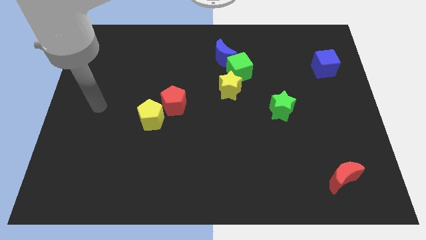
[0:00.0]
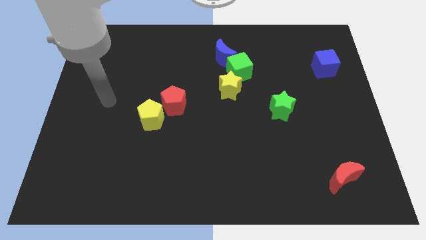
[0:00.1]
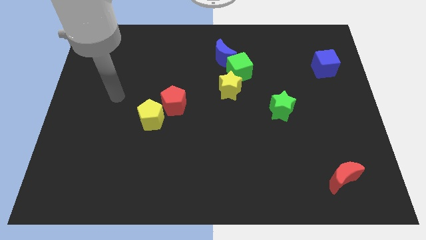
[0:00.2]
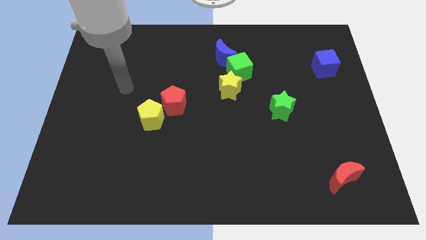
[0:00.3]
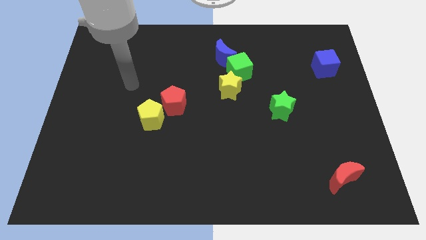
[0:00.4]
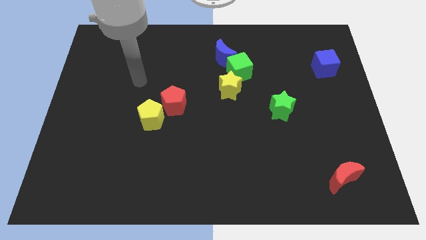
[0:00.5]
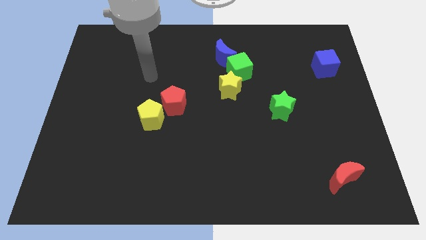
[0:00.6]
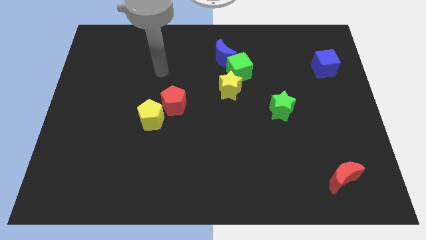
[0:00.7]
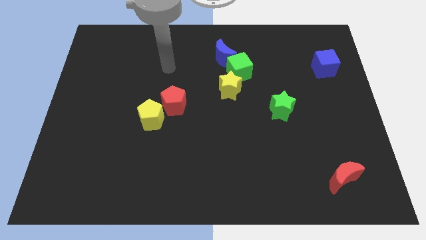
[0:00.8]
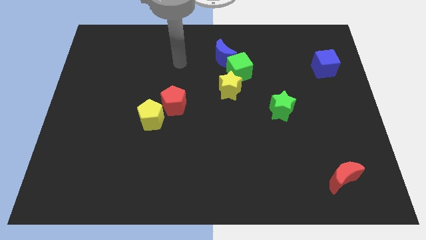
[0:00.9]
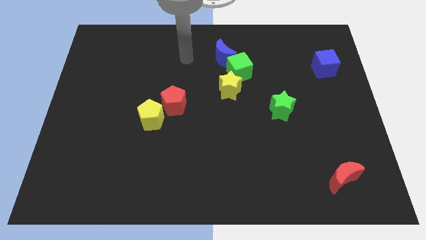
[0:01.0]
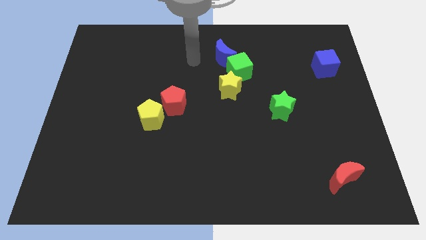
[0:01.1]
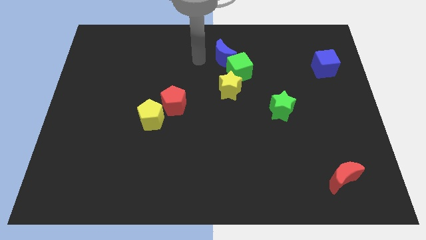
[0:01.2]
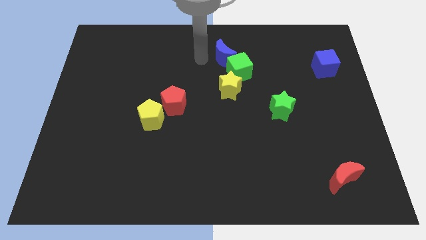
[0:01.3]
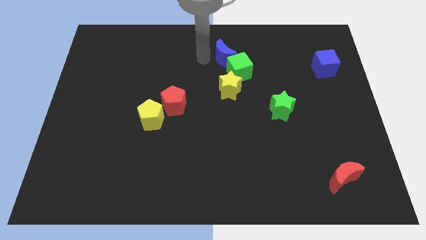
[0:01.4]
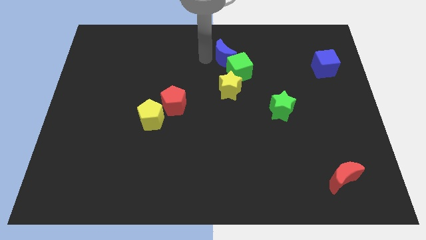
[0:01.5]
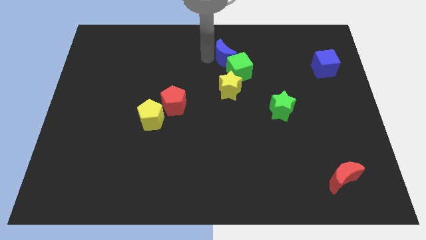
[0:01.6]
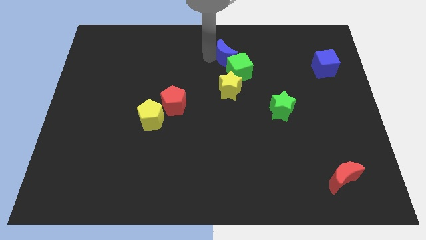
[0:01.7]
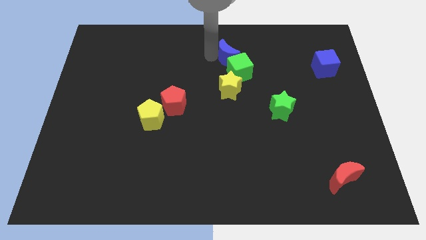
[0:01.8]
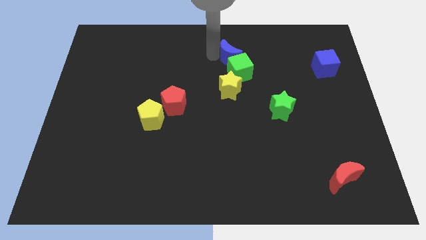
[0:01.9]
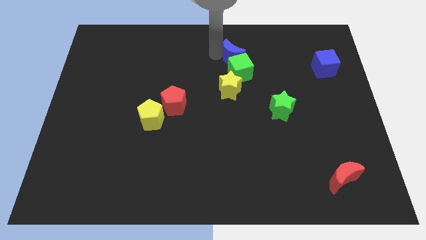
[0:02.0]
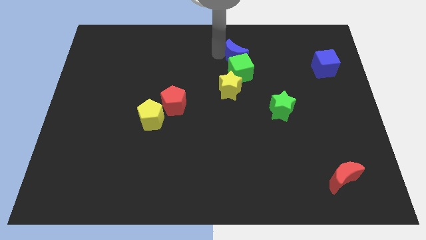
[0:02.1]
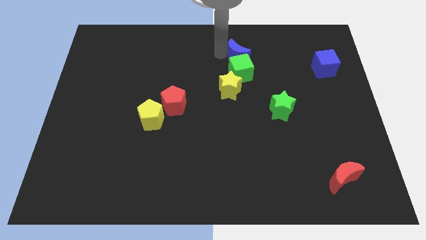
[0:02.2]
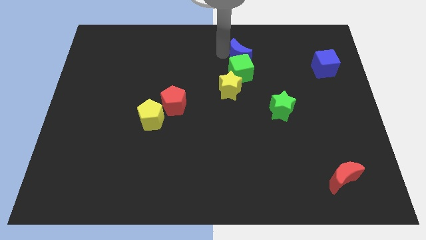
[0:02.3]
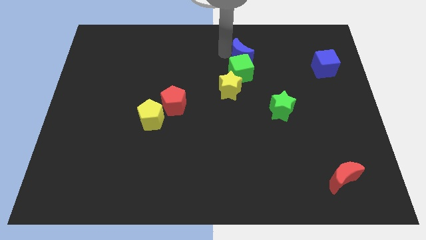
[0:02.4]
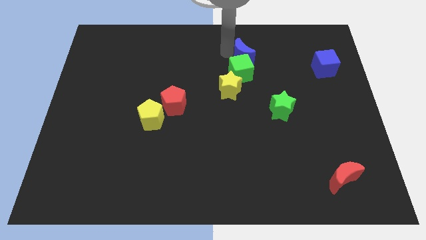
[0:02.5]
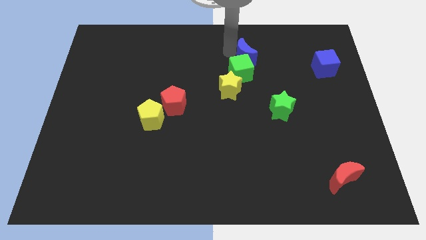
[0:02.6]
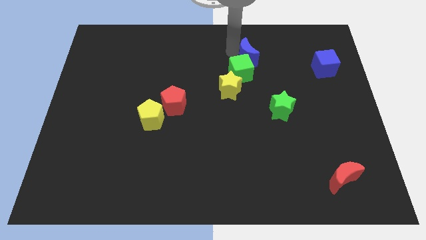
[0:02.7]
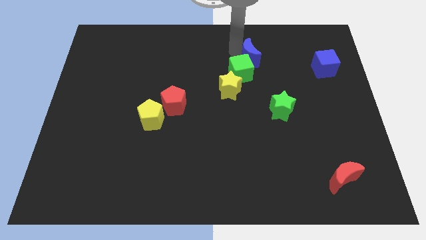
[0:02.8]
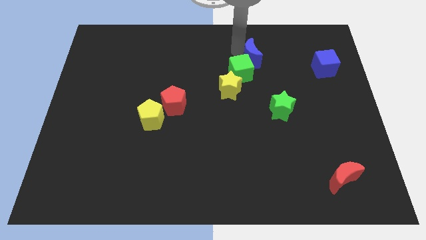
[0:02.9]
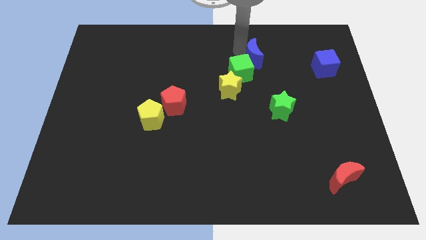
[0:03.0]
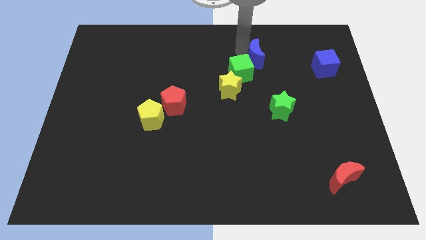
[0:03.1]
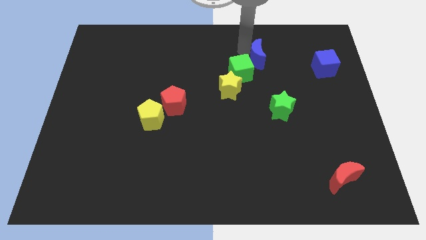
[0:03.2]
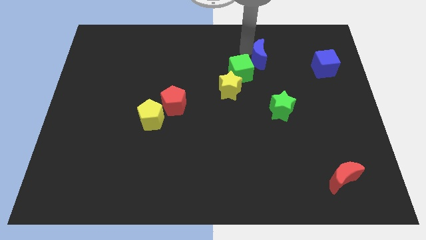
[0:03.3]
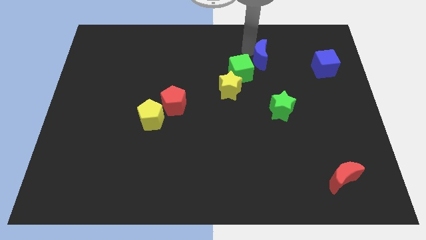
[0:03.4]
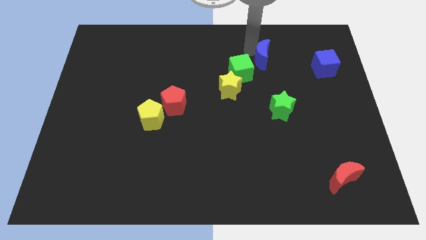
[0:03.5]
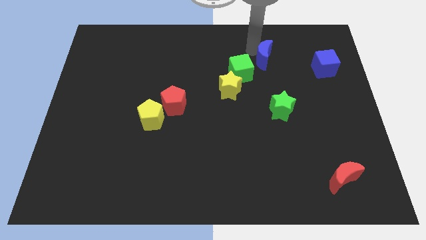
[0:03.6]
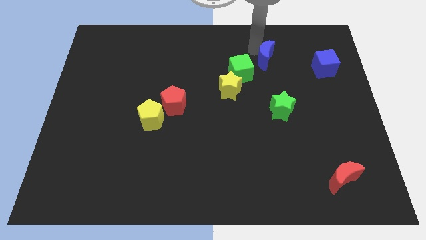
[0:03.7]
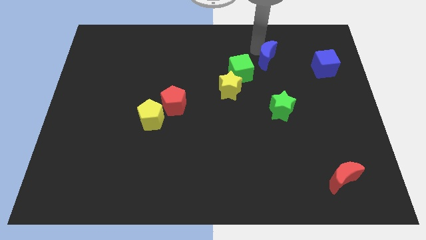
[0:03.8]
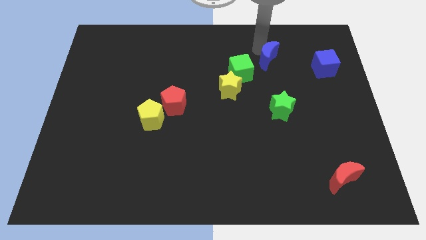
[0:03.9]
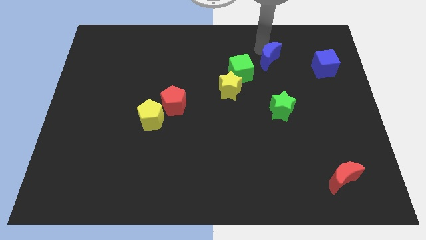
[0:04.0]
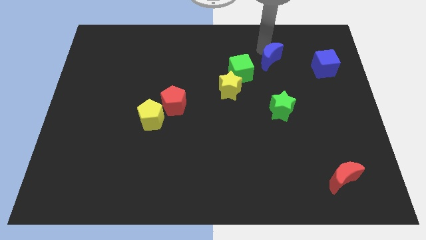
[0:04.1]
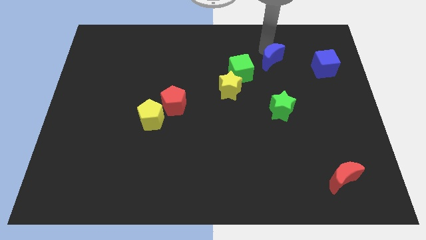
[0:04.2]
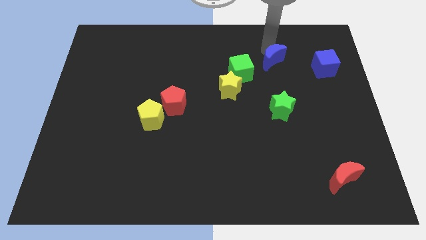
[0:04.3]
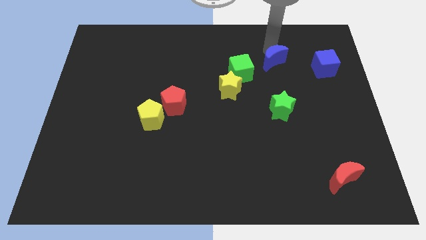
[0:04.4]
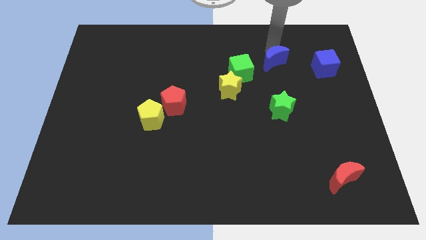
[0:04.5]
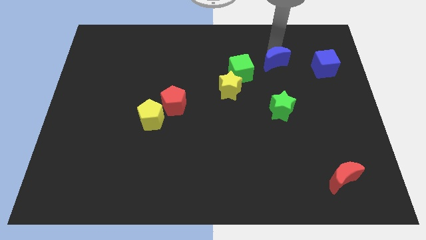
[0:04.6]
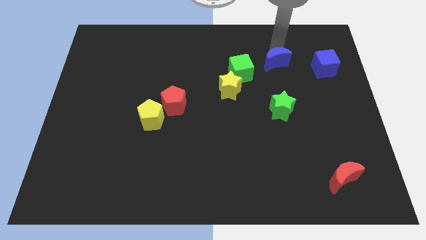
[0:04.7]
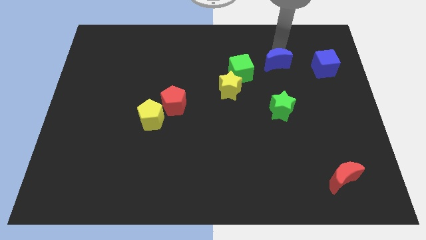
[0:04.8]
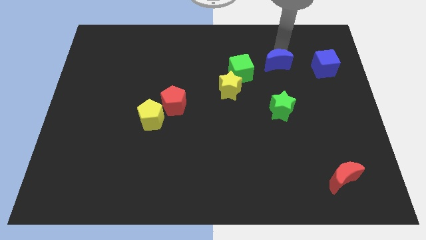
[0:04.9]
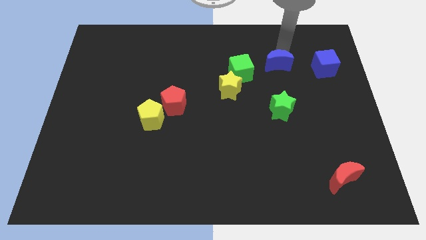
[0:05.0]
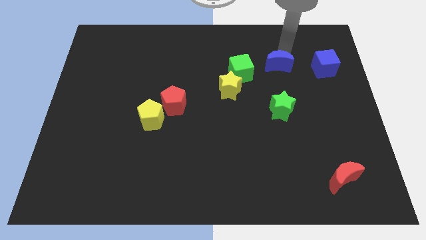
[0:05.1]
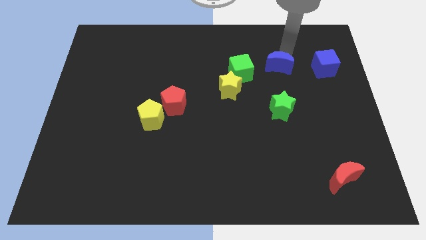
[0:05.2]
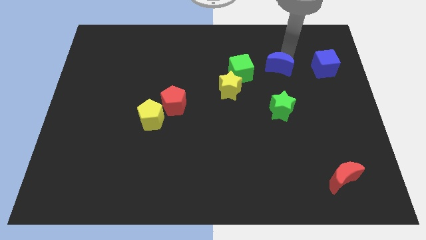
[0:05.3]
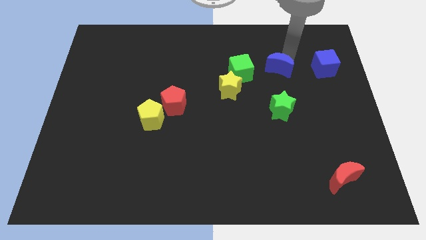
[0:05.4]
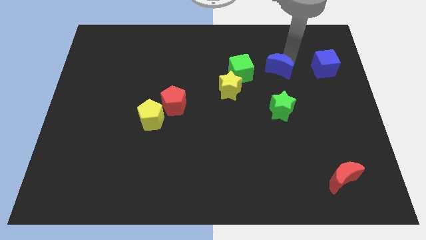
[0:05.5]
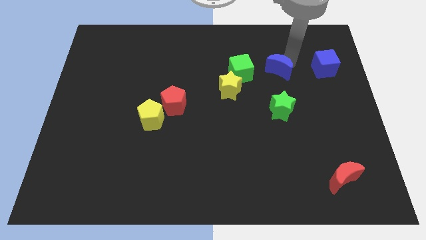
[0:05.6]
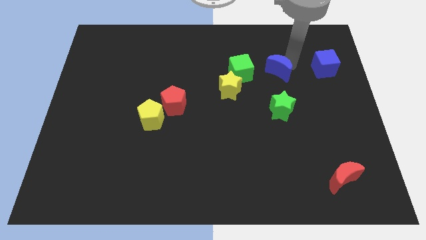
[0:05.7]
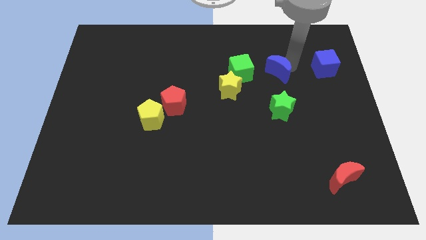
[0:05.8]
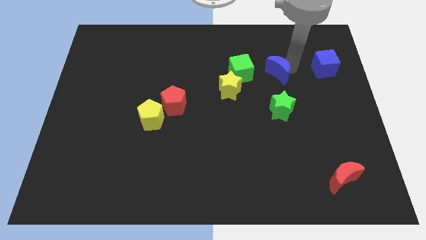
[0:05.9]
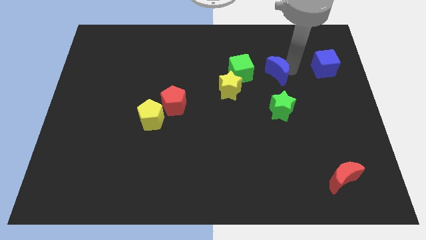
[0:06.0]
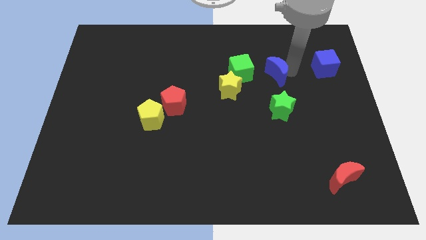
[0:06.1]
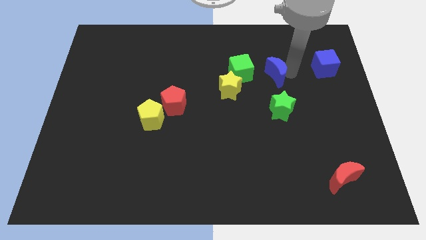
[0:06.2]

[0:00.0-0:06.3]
put the blue moon to the right side of the yellow star
